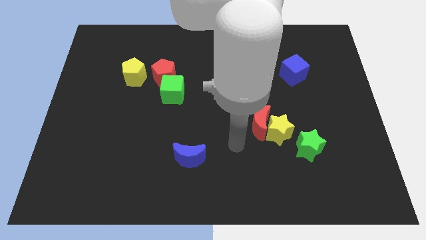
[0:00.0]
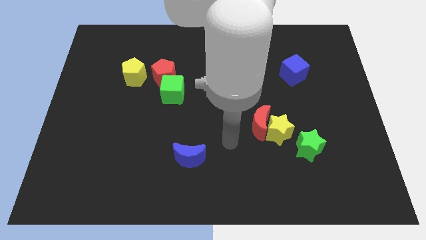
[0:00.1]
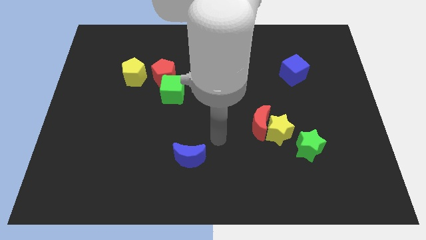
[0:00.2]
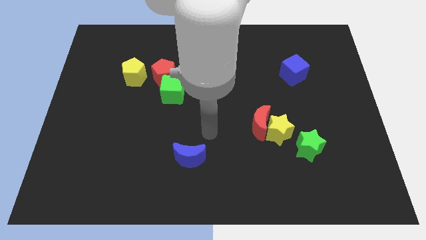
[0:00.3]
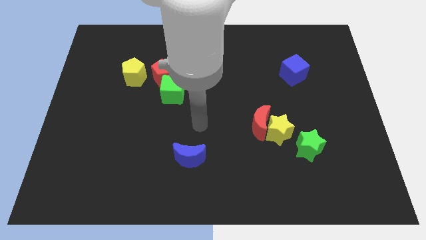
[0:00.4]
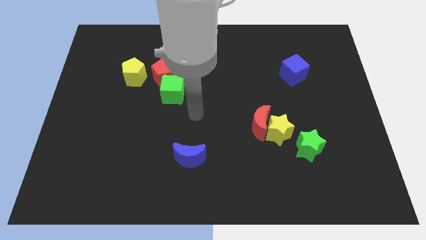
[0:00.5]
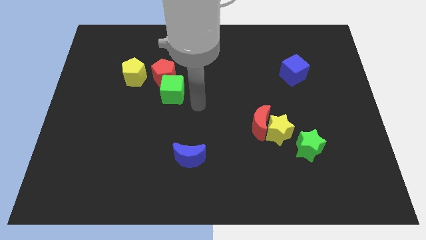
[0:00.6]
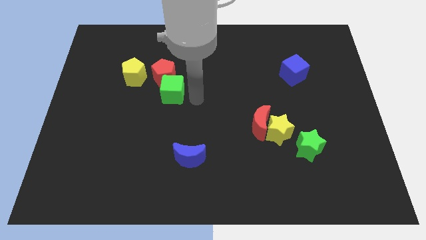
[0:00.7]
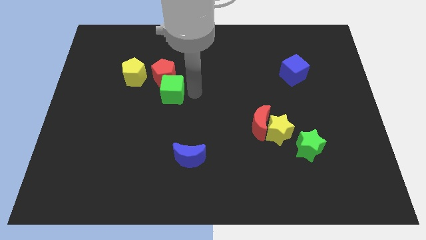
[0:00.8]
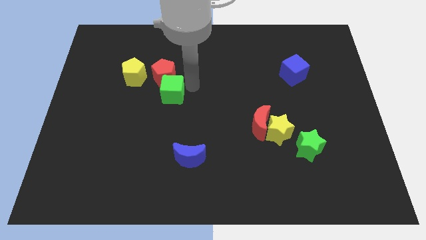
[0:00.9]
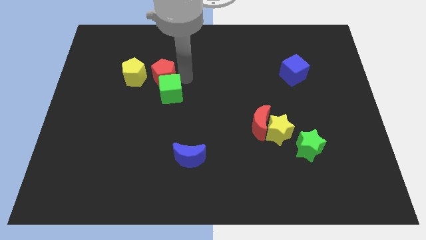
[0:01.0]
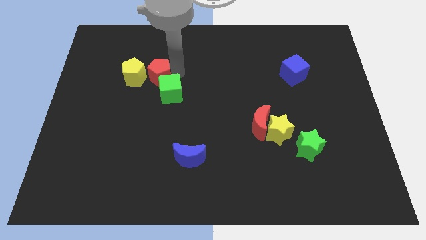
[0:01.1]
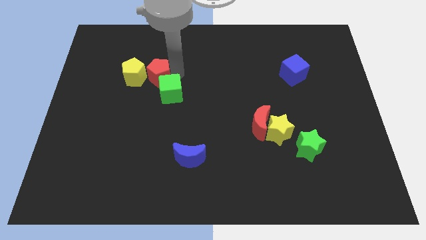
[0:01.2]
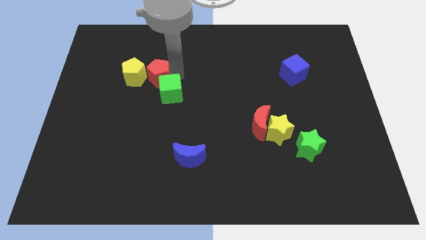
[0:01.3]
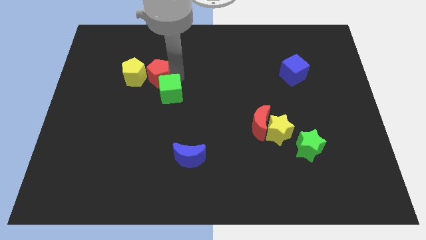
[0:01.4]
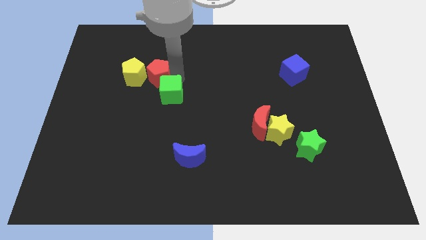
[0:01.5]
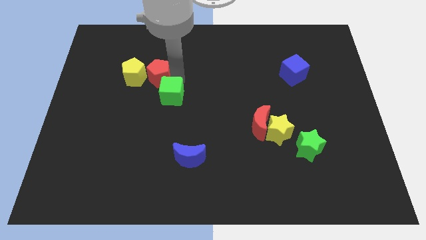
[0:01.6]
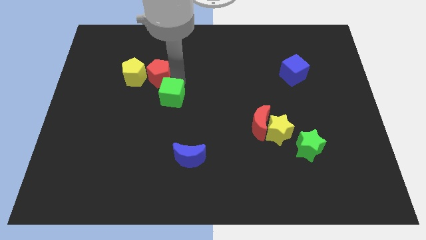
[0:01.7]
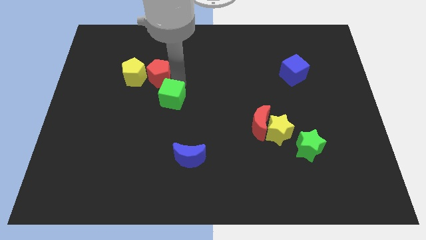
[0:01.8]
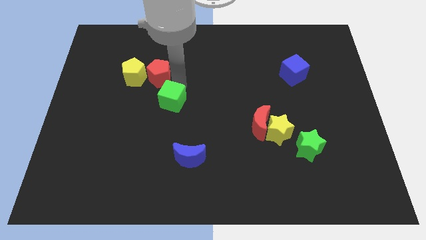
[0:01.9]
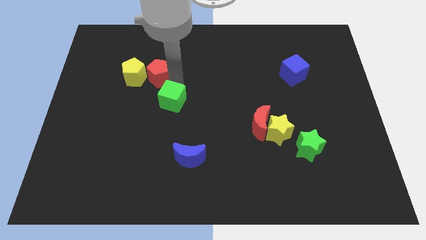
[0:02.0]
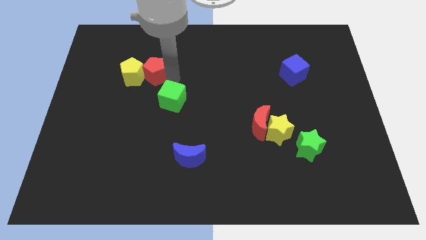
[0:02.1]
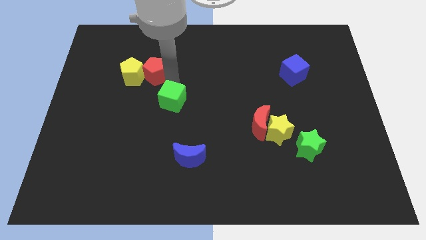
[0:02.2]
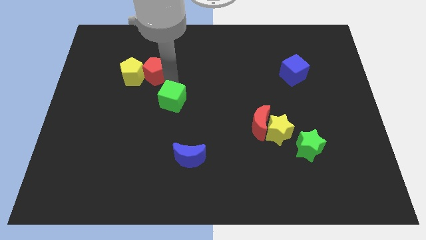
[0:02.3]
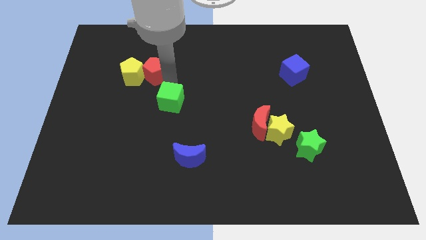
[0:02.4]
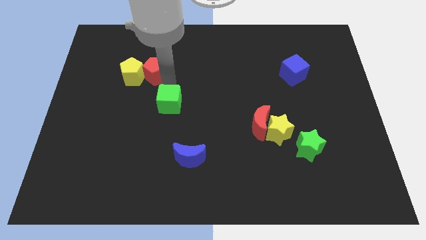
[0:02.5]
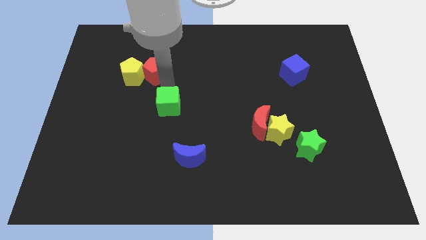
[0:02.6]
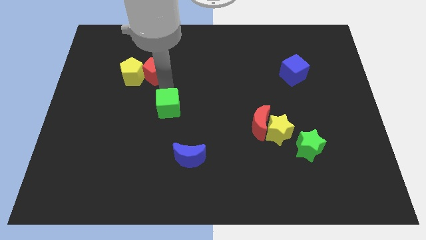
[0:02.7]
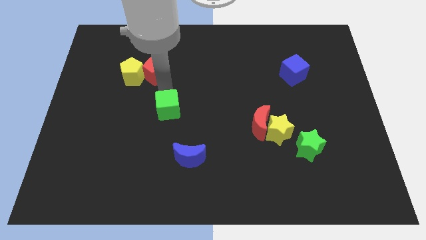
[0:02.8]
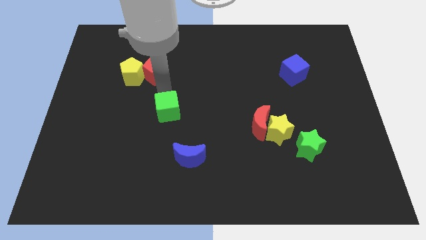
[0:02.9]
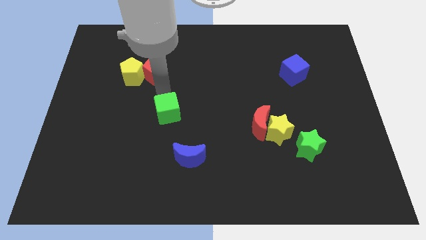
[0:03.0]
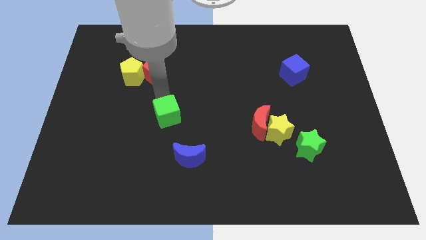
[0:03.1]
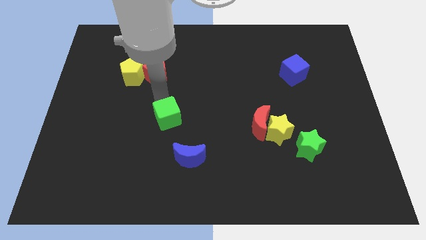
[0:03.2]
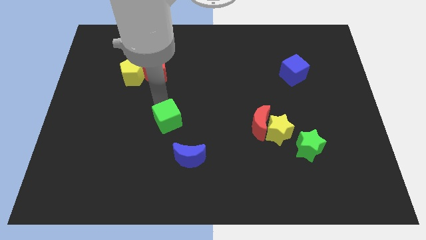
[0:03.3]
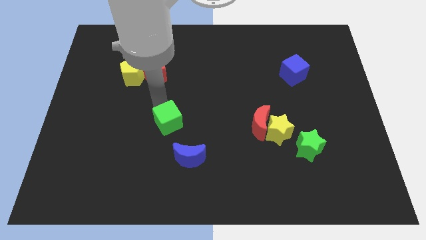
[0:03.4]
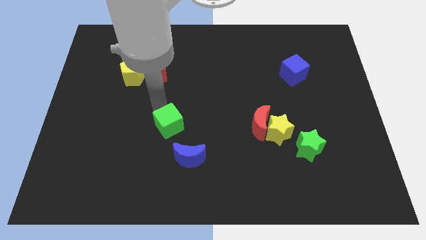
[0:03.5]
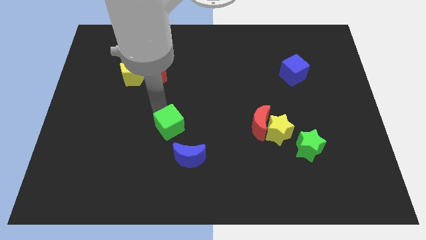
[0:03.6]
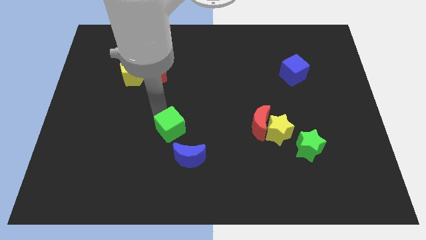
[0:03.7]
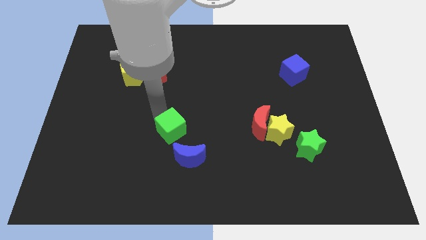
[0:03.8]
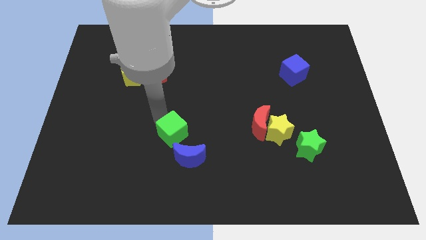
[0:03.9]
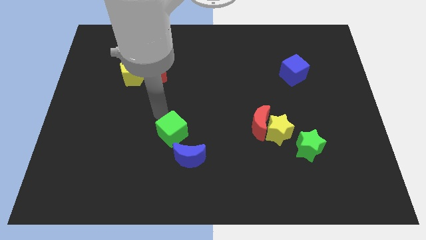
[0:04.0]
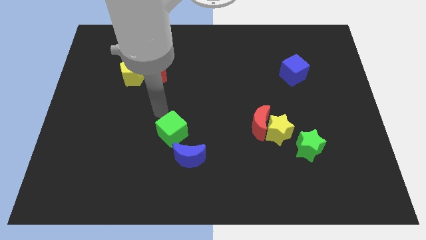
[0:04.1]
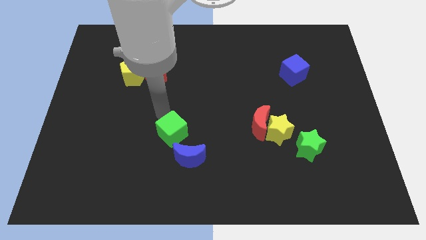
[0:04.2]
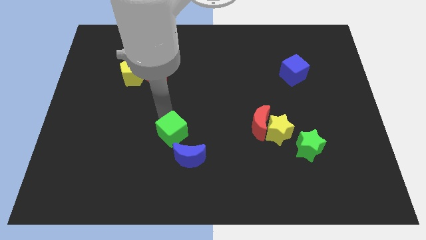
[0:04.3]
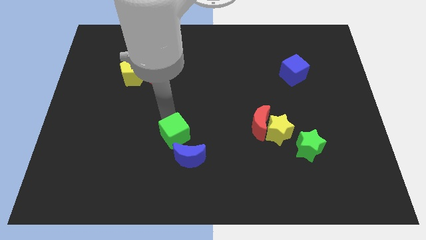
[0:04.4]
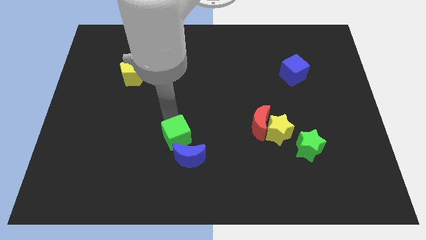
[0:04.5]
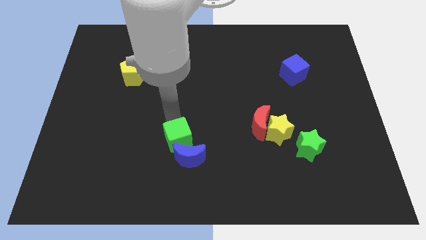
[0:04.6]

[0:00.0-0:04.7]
put the green cube close to the blue moon

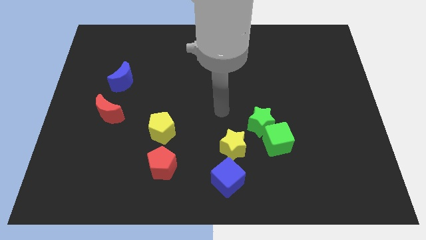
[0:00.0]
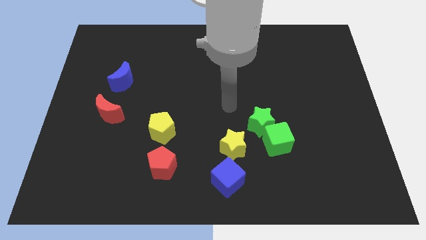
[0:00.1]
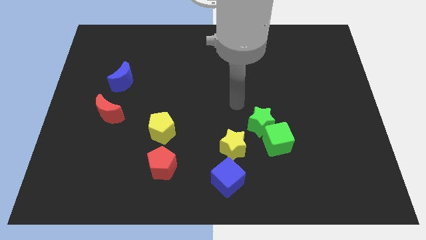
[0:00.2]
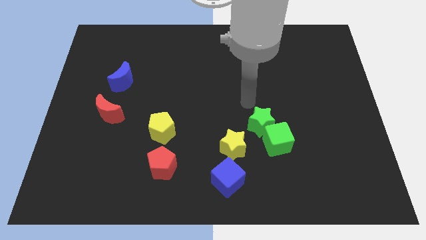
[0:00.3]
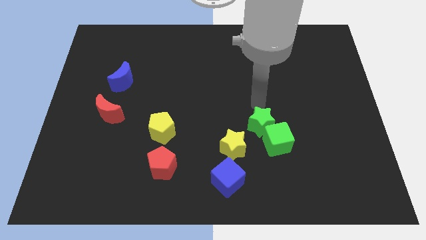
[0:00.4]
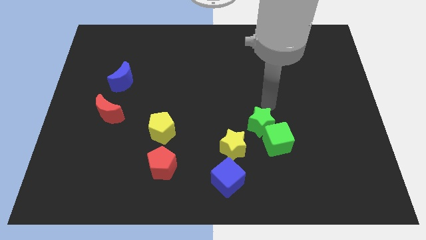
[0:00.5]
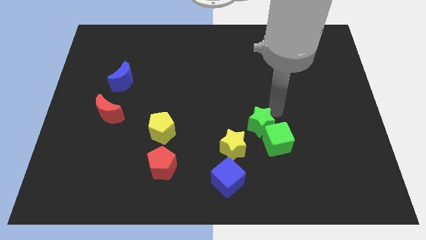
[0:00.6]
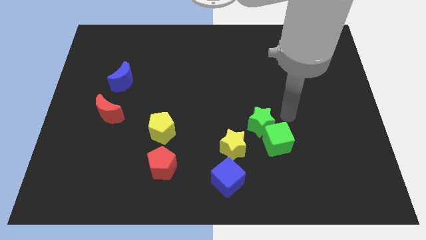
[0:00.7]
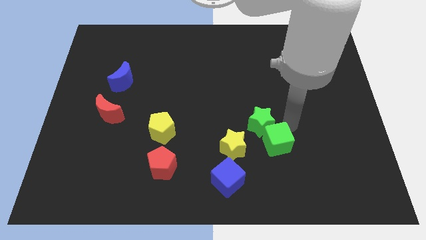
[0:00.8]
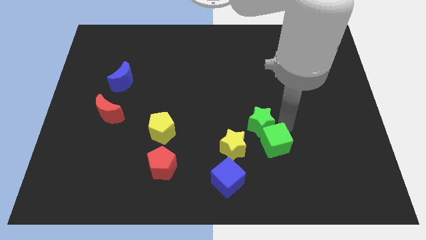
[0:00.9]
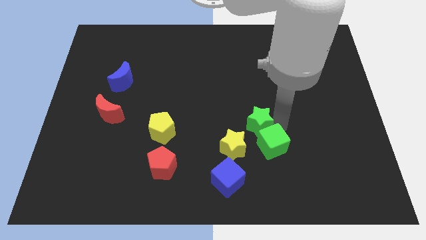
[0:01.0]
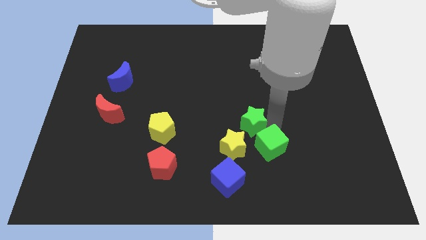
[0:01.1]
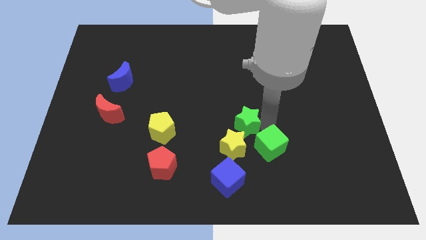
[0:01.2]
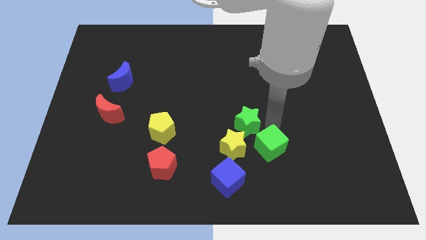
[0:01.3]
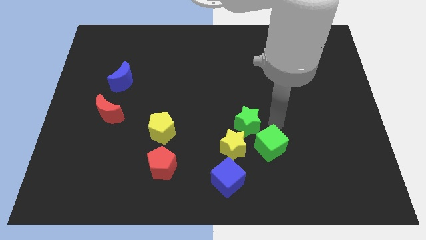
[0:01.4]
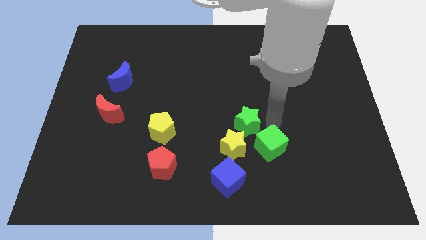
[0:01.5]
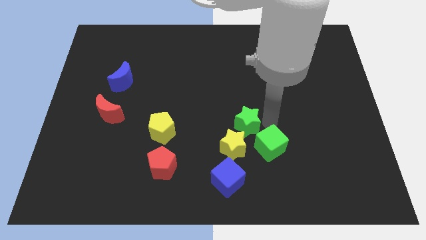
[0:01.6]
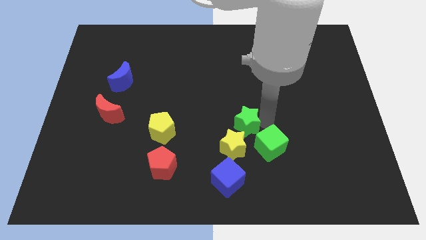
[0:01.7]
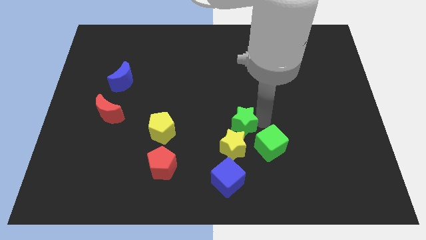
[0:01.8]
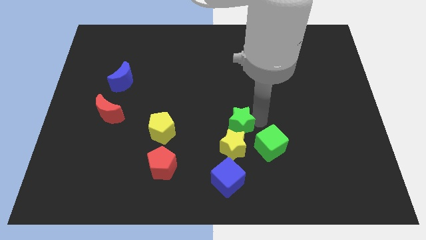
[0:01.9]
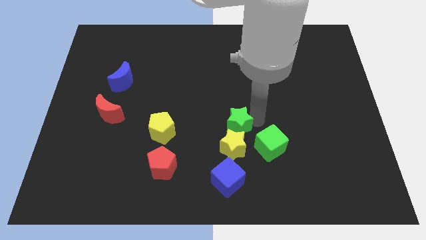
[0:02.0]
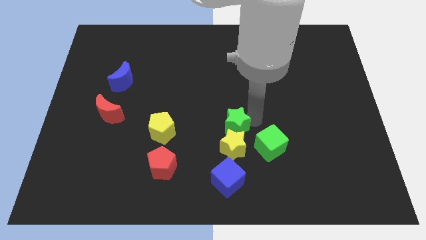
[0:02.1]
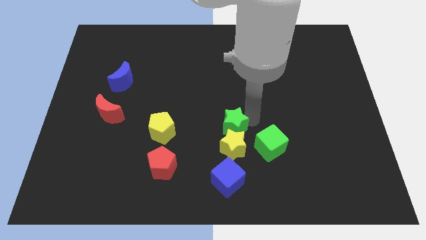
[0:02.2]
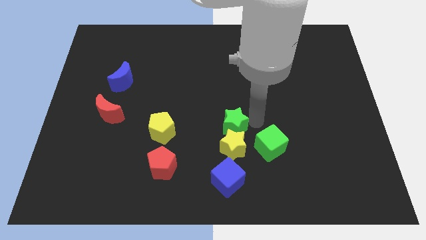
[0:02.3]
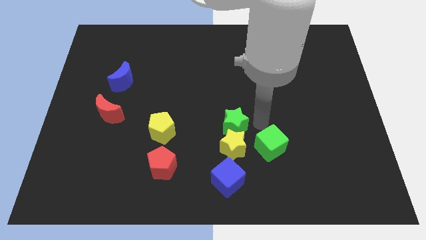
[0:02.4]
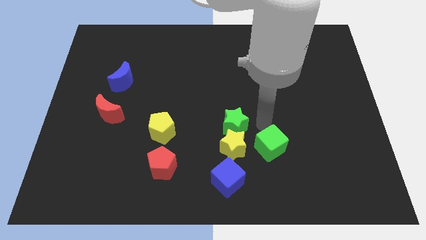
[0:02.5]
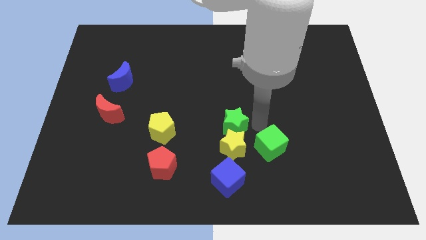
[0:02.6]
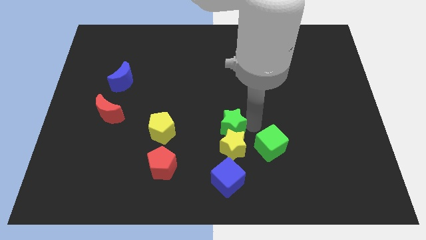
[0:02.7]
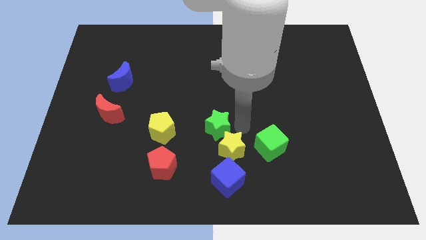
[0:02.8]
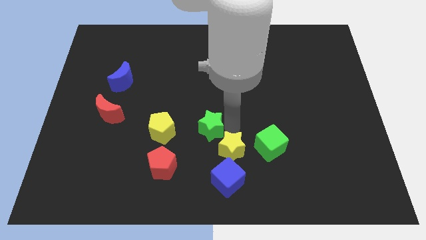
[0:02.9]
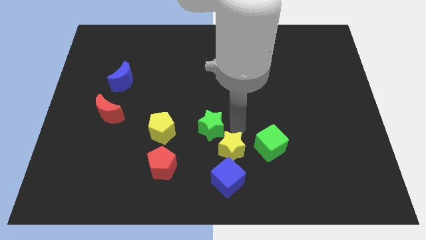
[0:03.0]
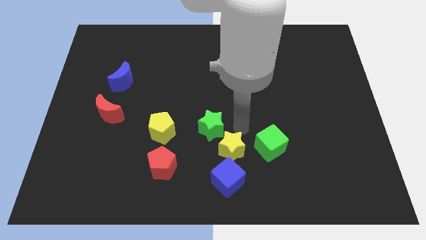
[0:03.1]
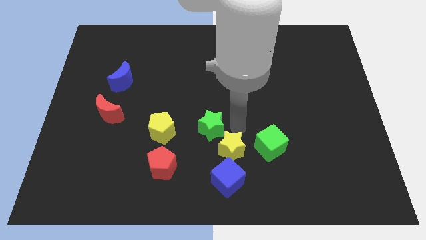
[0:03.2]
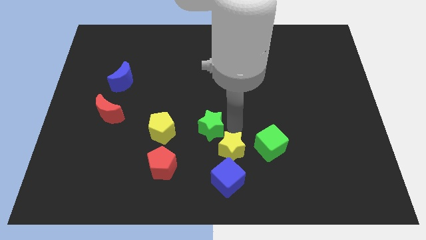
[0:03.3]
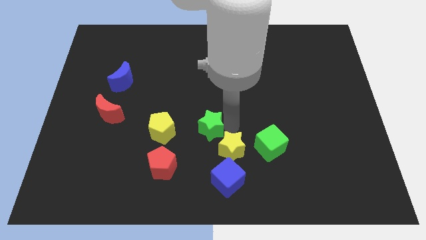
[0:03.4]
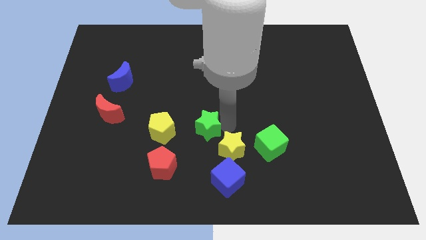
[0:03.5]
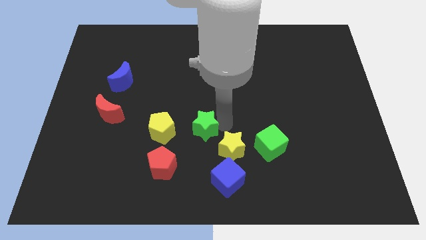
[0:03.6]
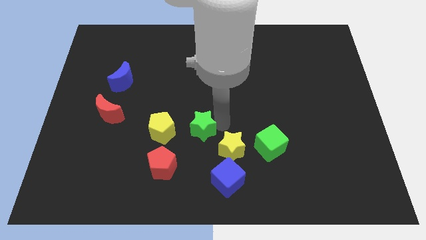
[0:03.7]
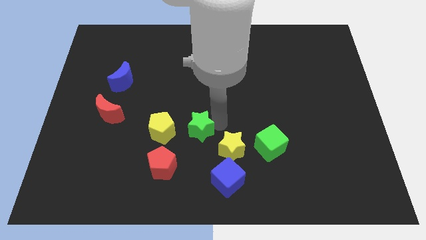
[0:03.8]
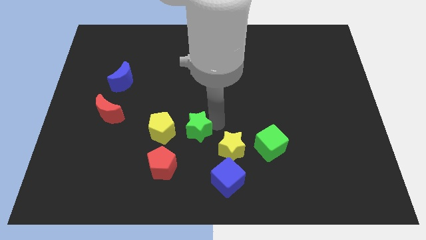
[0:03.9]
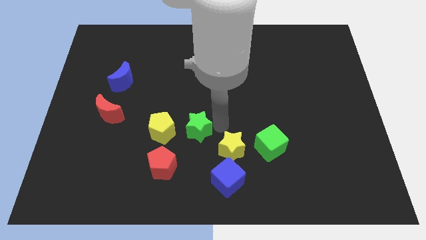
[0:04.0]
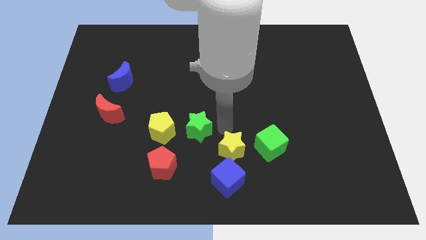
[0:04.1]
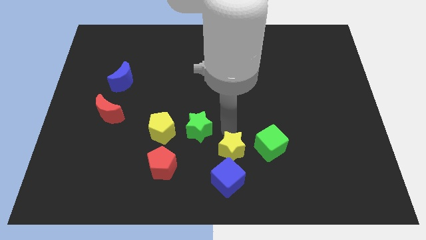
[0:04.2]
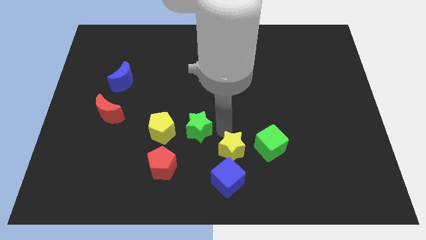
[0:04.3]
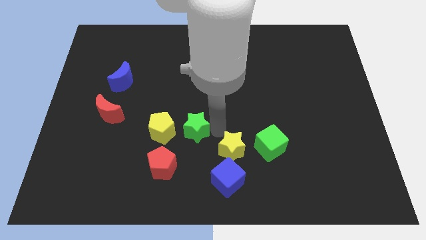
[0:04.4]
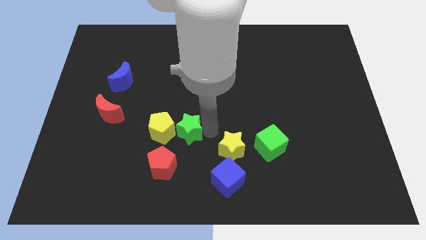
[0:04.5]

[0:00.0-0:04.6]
put the green star close to the yellow pentagon
